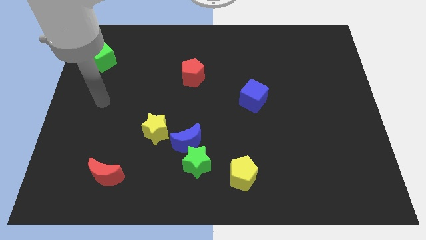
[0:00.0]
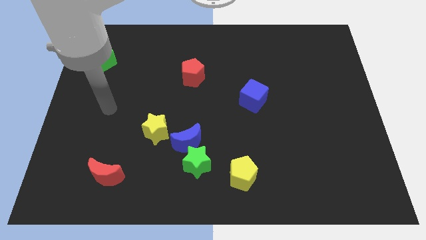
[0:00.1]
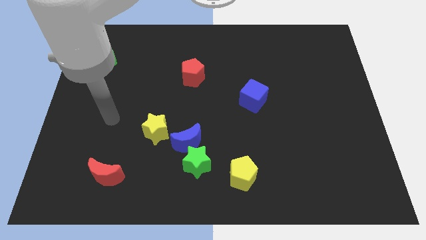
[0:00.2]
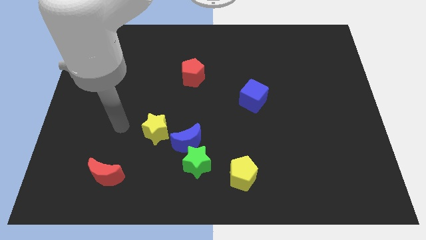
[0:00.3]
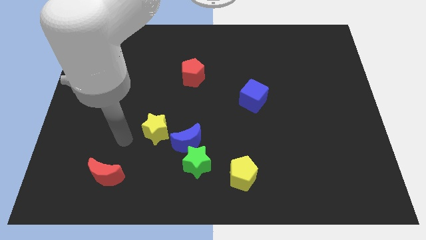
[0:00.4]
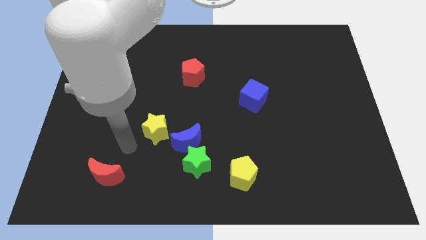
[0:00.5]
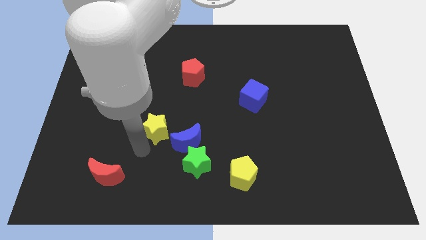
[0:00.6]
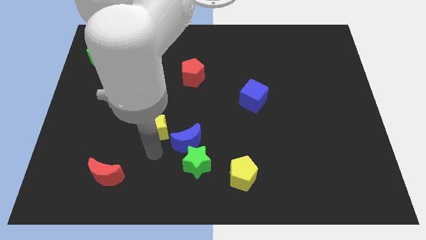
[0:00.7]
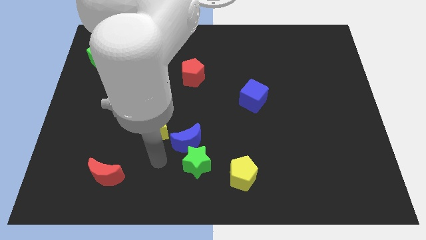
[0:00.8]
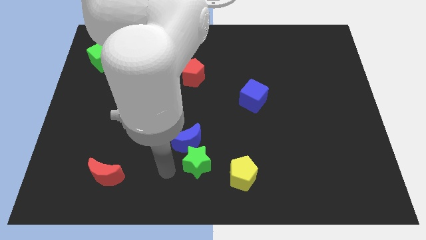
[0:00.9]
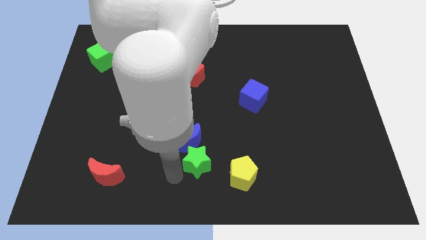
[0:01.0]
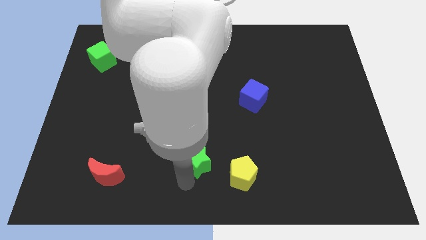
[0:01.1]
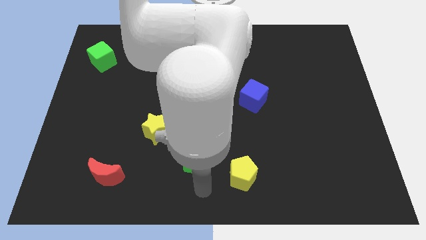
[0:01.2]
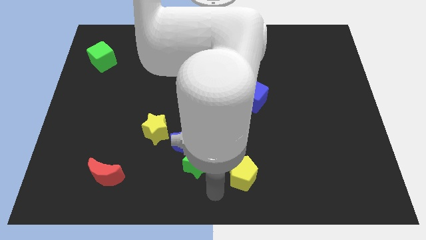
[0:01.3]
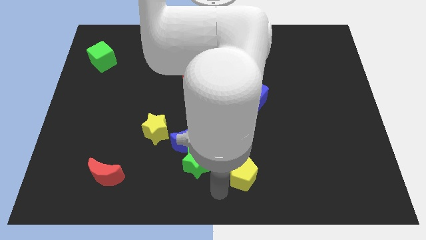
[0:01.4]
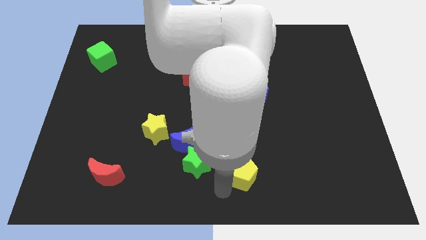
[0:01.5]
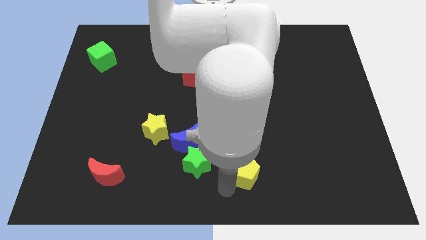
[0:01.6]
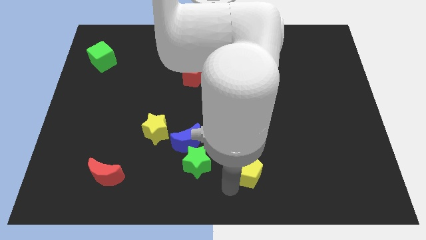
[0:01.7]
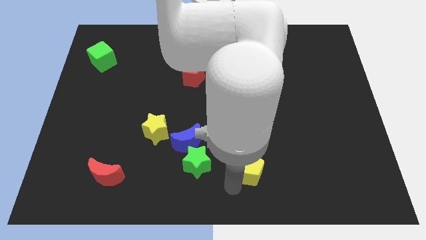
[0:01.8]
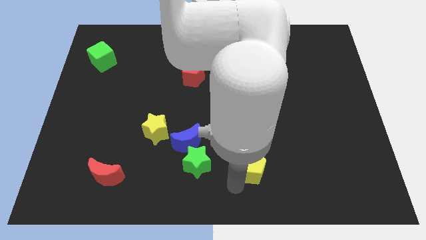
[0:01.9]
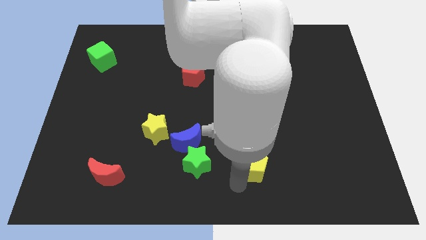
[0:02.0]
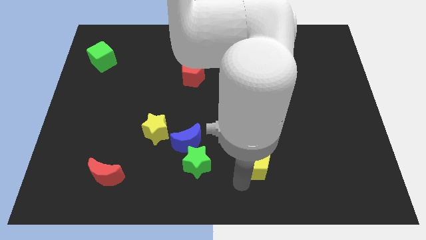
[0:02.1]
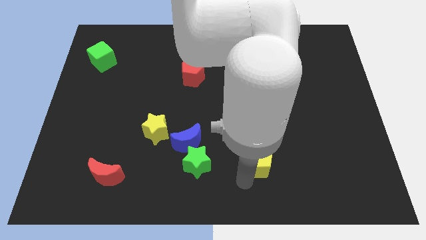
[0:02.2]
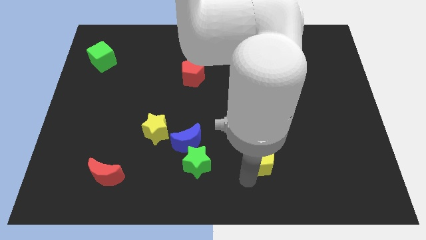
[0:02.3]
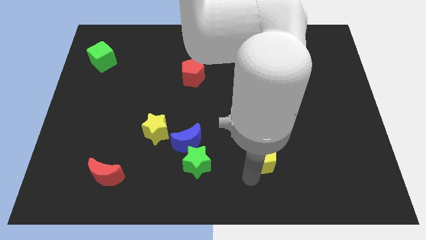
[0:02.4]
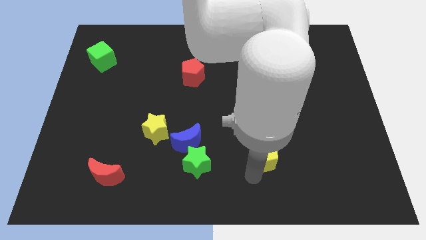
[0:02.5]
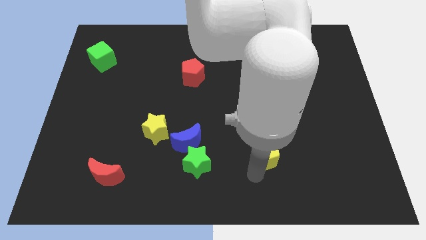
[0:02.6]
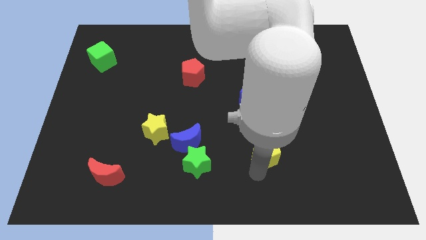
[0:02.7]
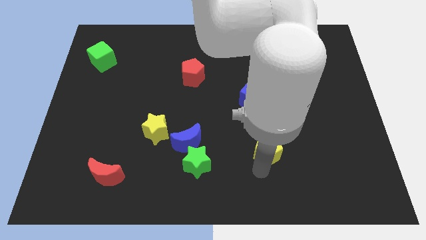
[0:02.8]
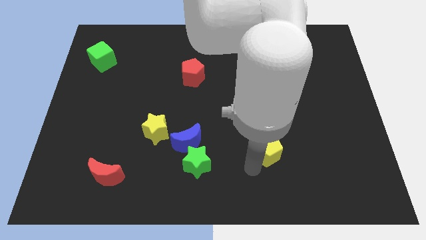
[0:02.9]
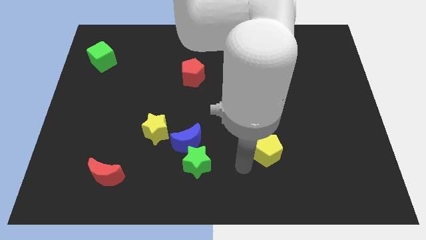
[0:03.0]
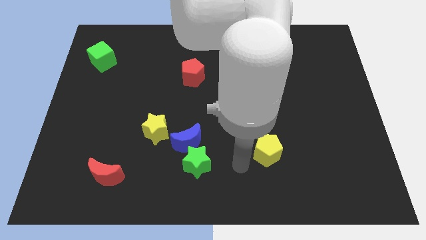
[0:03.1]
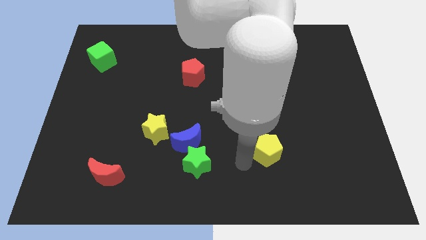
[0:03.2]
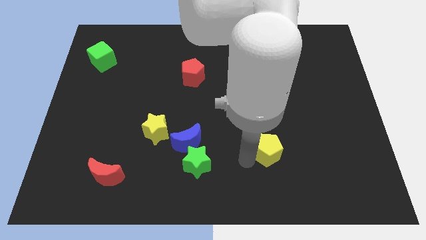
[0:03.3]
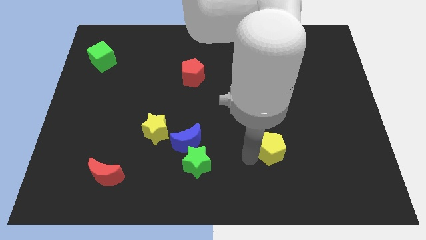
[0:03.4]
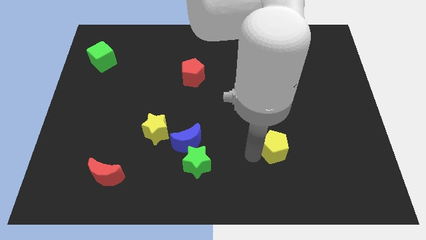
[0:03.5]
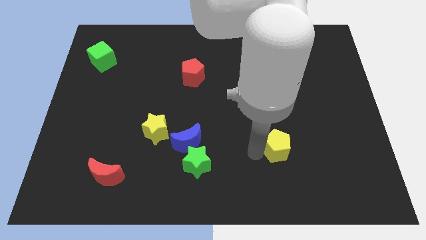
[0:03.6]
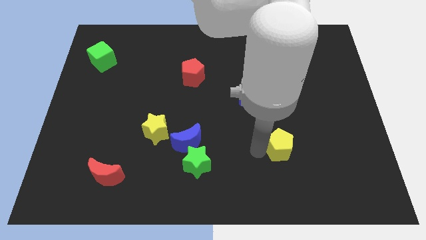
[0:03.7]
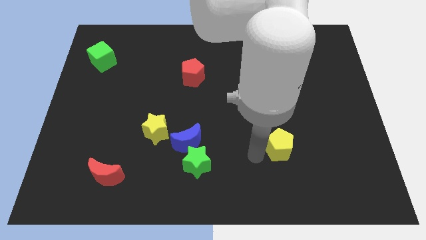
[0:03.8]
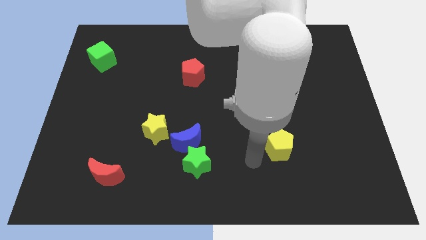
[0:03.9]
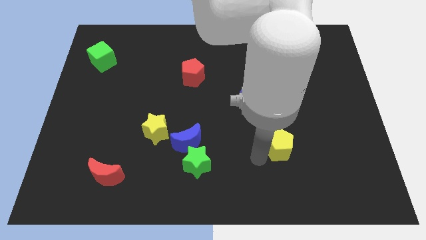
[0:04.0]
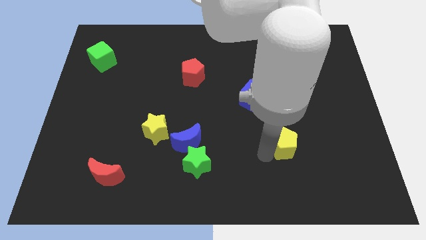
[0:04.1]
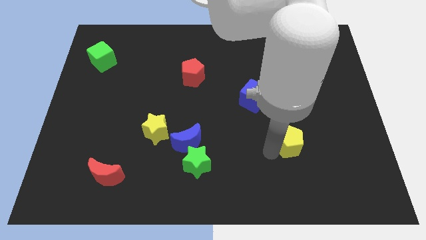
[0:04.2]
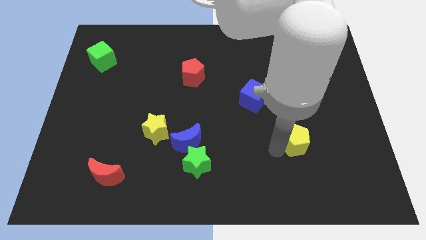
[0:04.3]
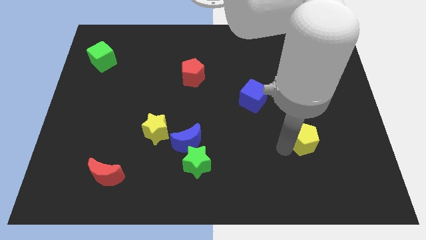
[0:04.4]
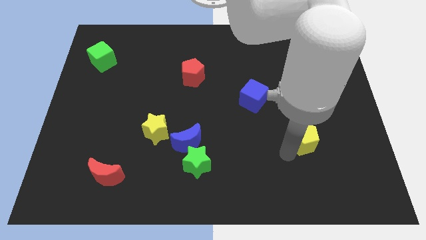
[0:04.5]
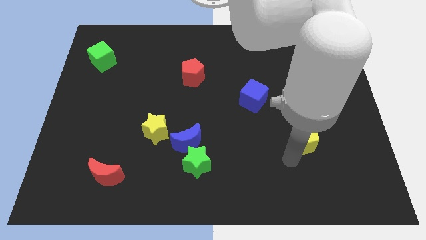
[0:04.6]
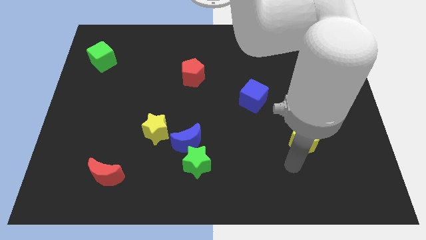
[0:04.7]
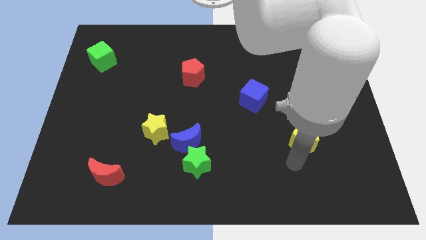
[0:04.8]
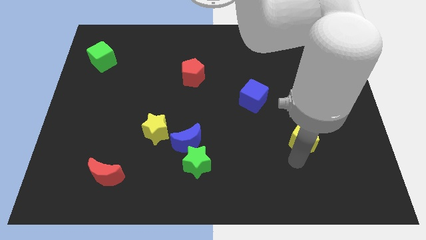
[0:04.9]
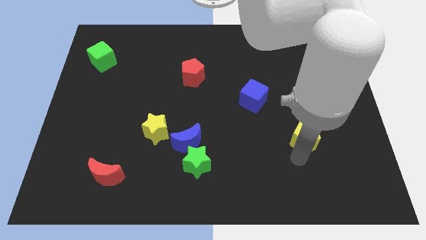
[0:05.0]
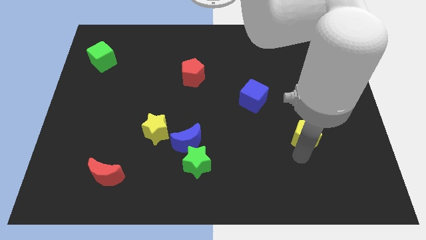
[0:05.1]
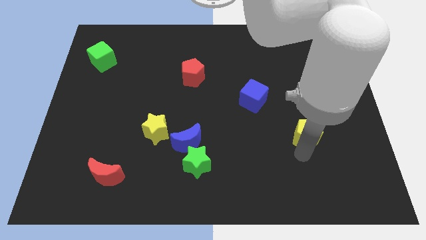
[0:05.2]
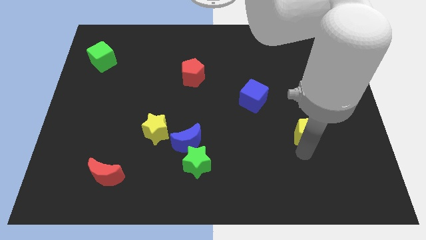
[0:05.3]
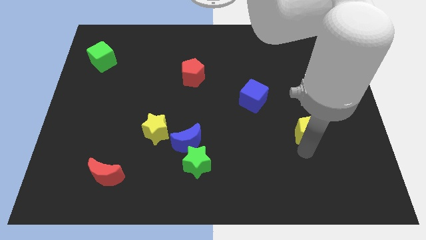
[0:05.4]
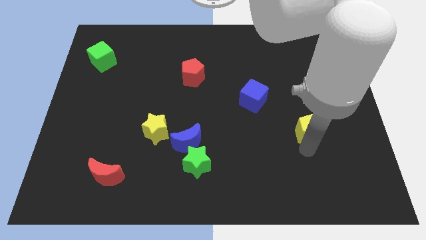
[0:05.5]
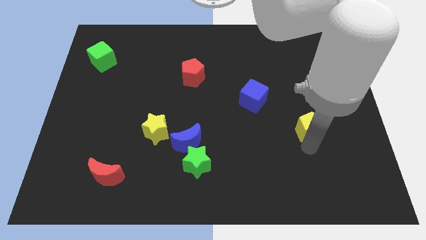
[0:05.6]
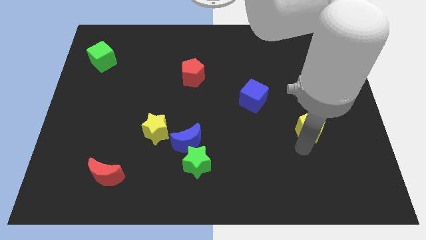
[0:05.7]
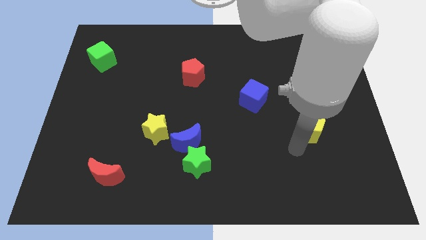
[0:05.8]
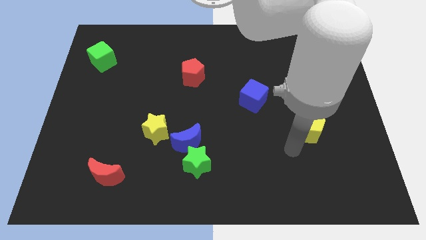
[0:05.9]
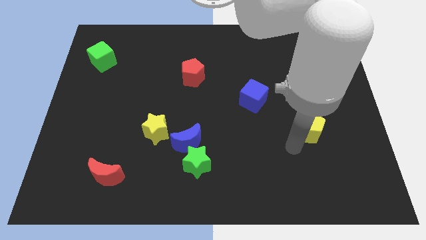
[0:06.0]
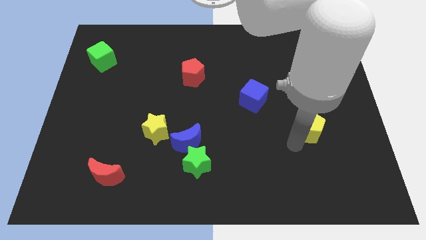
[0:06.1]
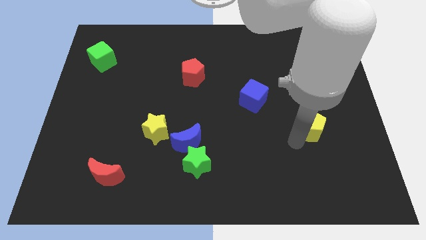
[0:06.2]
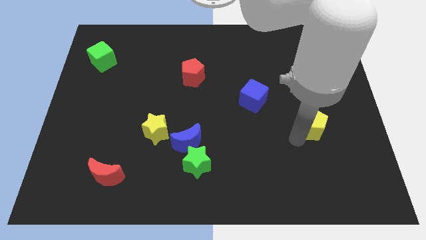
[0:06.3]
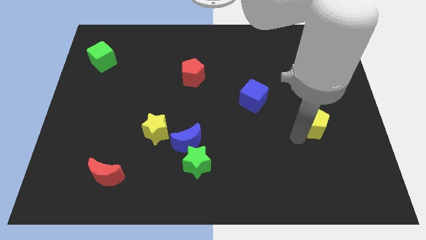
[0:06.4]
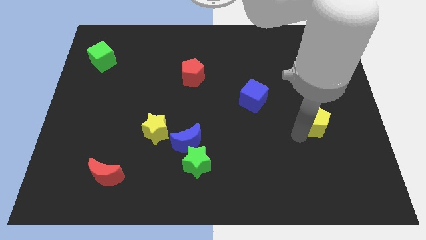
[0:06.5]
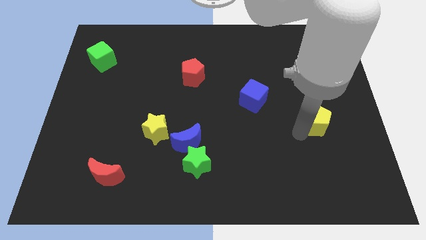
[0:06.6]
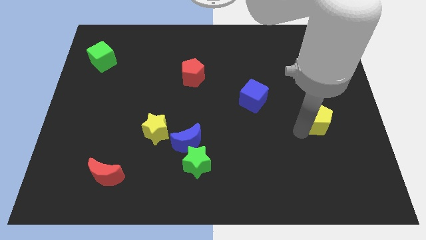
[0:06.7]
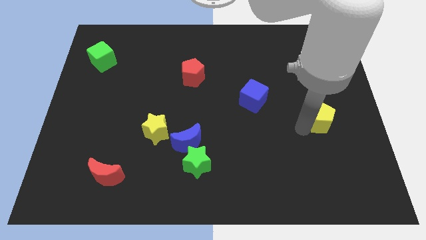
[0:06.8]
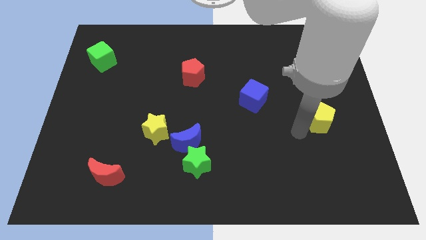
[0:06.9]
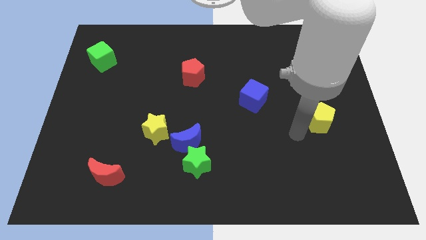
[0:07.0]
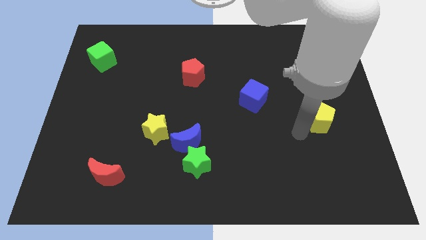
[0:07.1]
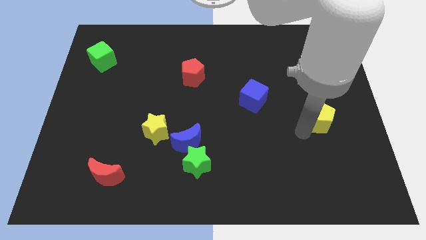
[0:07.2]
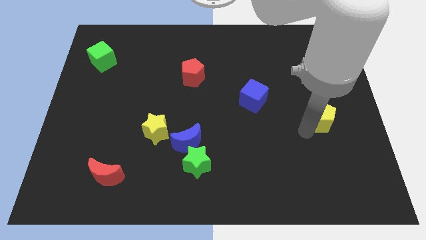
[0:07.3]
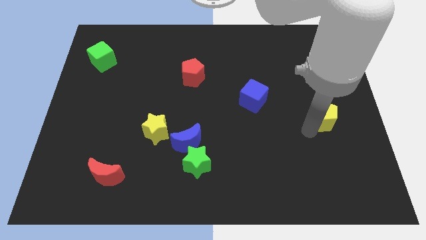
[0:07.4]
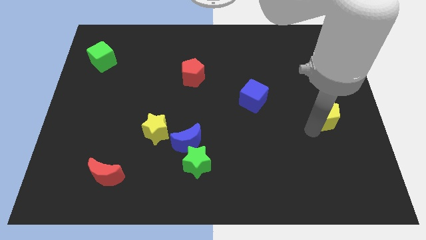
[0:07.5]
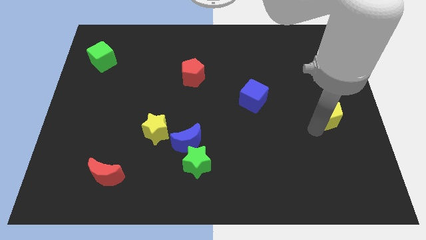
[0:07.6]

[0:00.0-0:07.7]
slide the yellow pentagon to the right side of the board
